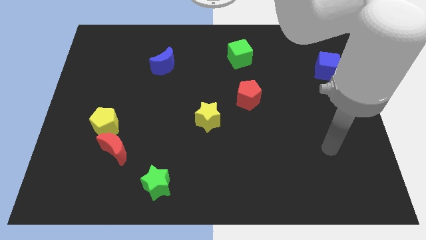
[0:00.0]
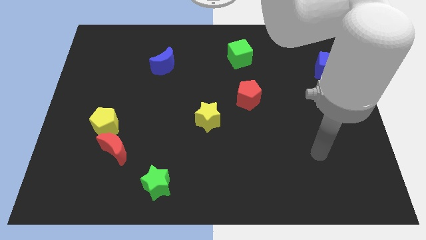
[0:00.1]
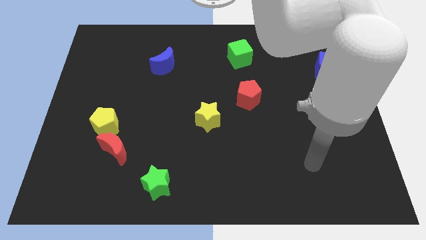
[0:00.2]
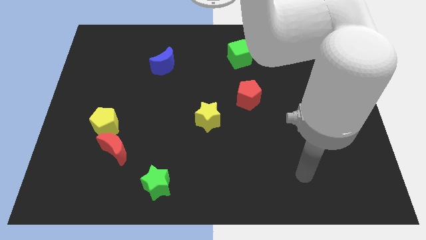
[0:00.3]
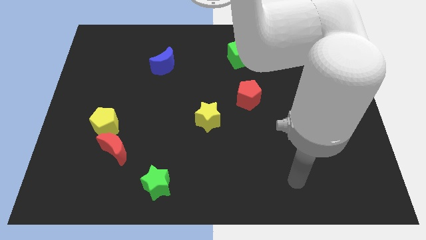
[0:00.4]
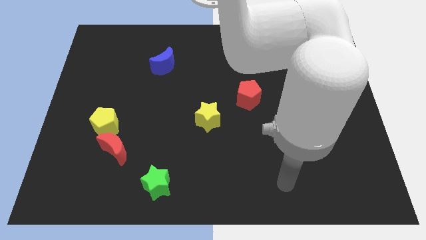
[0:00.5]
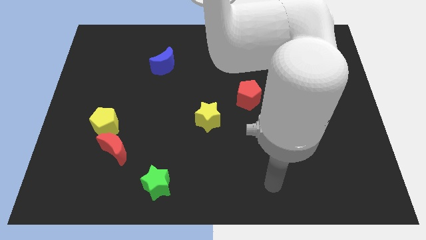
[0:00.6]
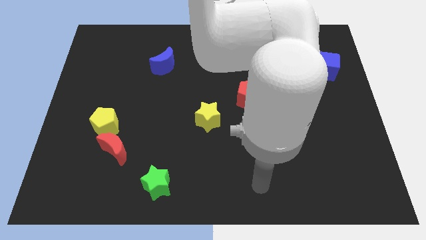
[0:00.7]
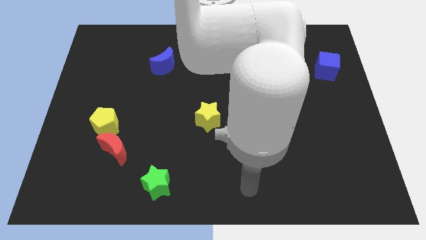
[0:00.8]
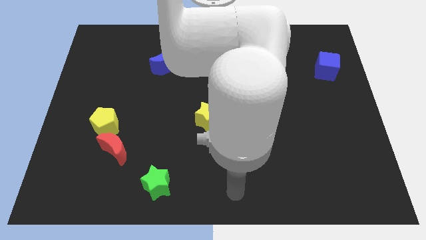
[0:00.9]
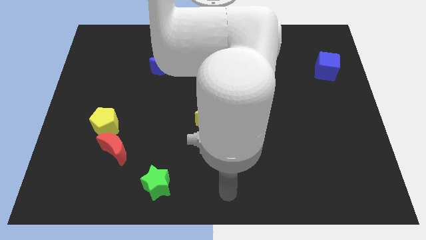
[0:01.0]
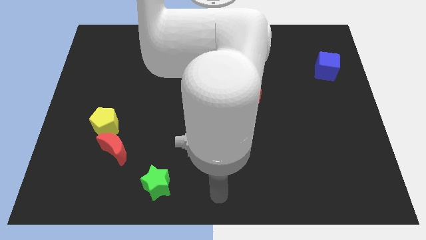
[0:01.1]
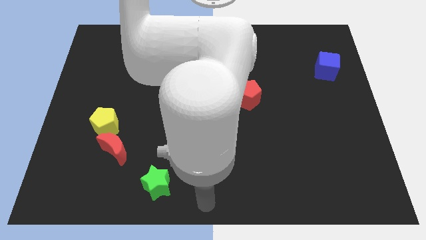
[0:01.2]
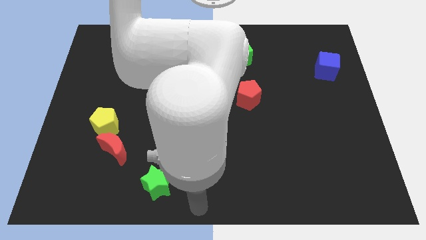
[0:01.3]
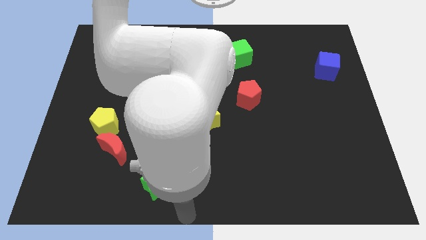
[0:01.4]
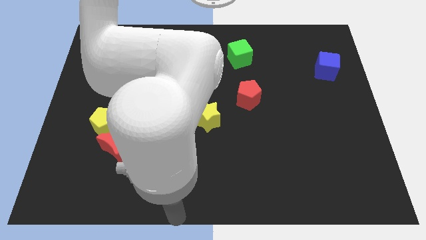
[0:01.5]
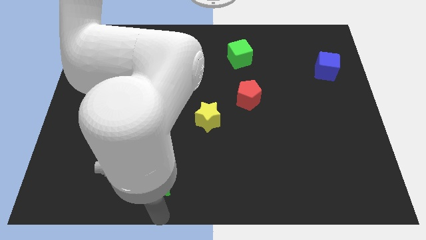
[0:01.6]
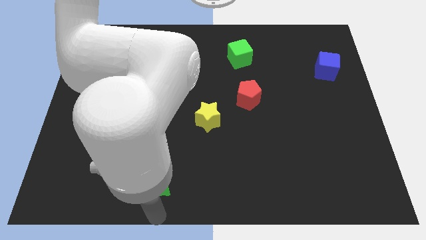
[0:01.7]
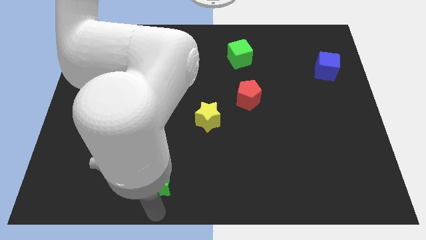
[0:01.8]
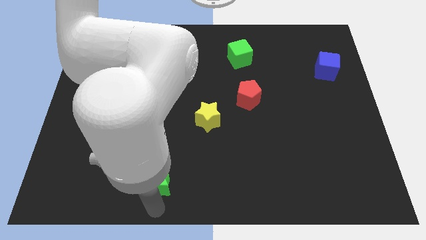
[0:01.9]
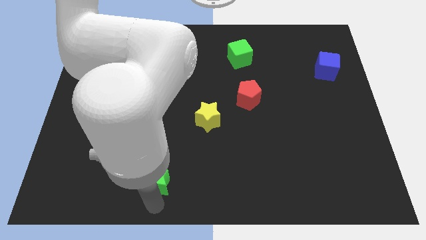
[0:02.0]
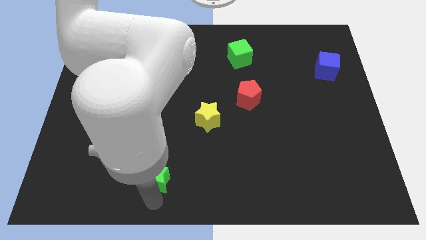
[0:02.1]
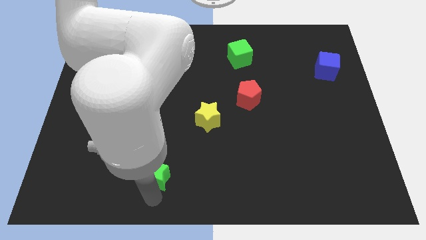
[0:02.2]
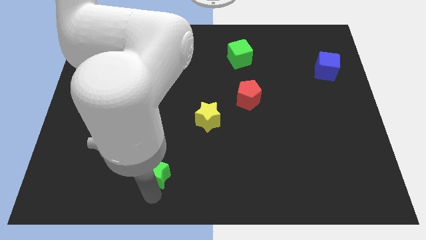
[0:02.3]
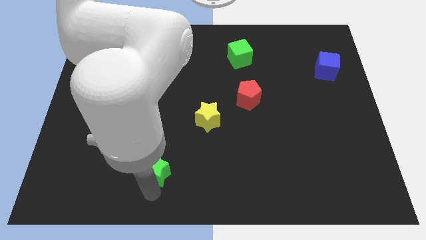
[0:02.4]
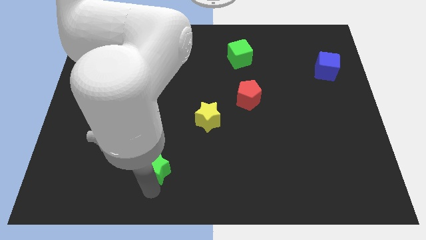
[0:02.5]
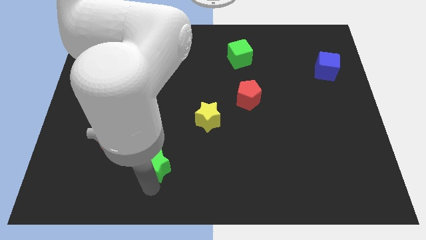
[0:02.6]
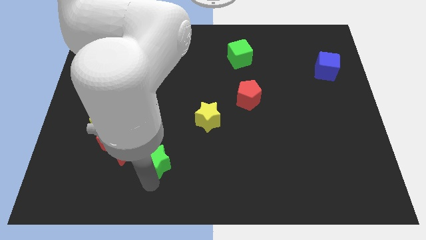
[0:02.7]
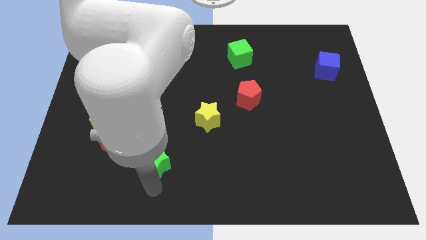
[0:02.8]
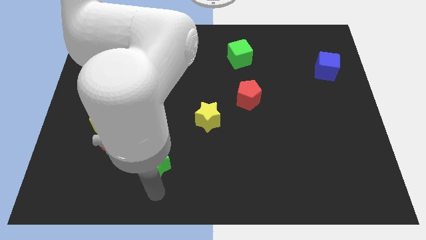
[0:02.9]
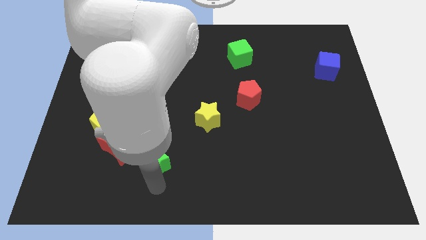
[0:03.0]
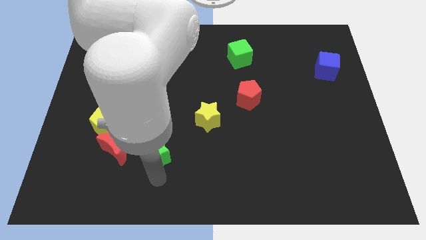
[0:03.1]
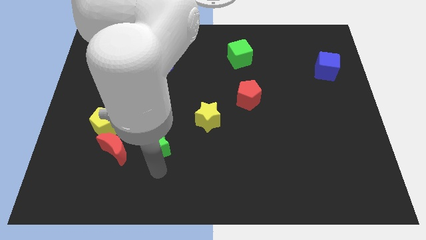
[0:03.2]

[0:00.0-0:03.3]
move the green star slightly up

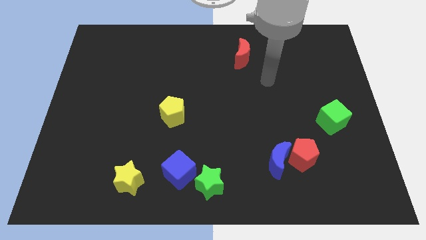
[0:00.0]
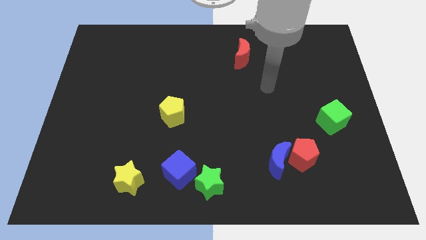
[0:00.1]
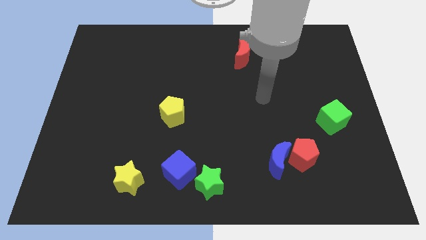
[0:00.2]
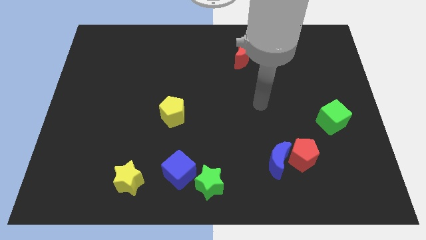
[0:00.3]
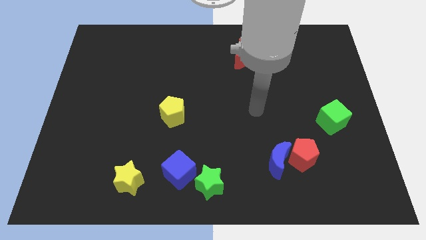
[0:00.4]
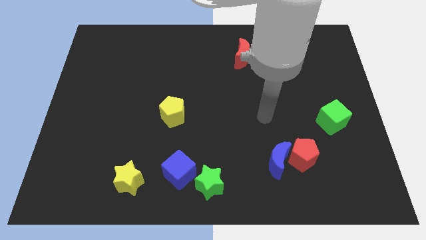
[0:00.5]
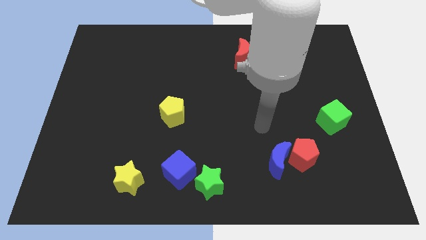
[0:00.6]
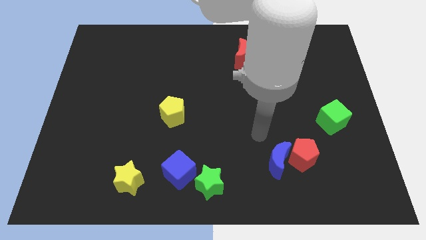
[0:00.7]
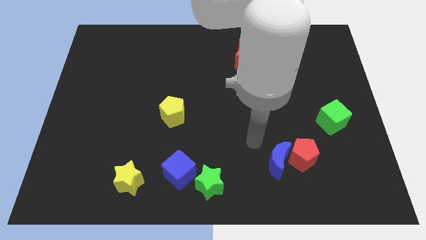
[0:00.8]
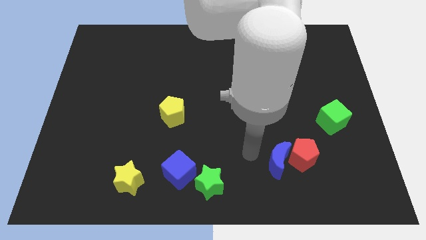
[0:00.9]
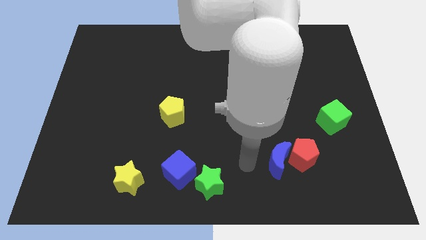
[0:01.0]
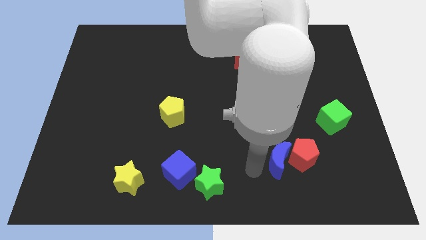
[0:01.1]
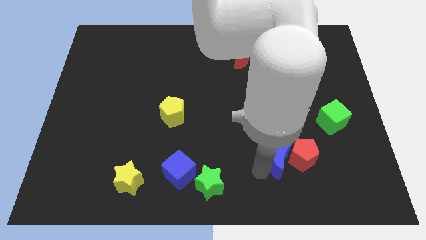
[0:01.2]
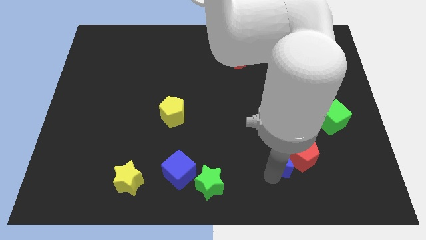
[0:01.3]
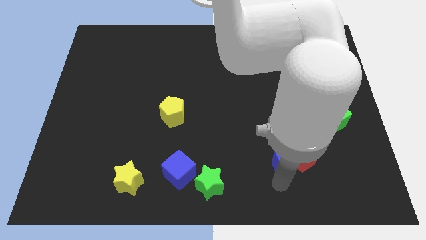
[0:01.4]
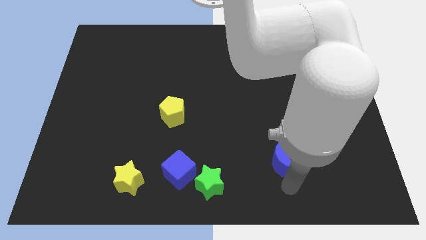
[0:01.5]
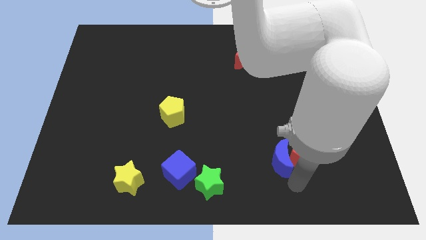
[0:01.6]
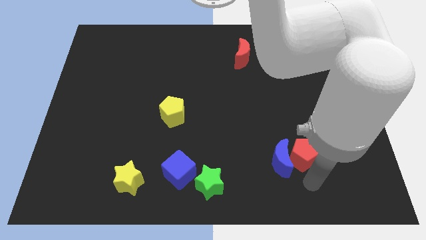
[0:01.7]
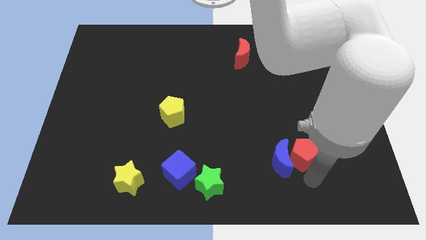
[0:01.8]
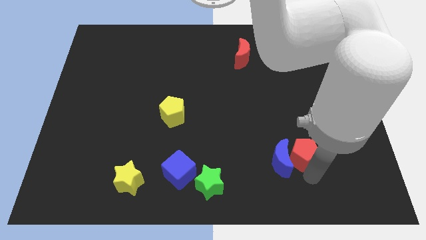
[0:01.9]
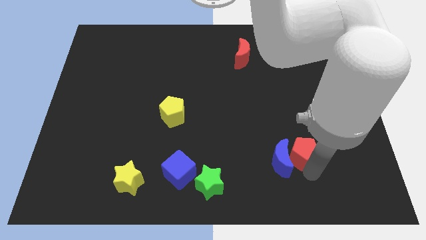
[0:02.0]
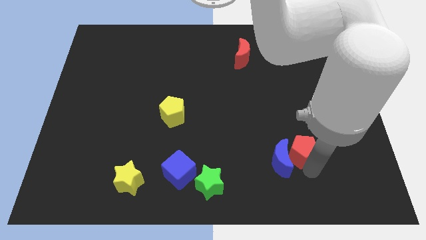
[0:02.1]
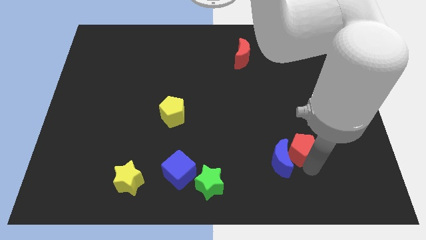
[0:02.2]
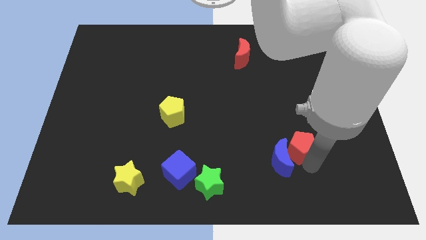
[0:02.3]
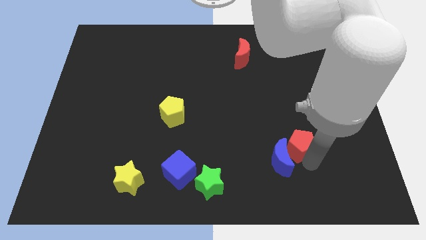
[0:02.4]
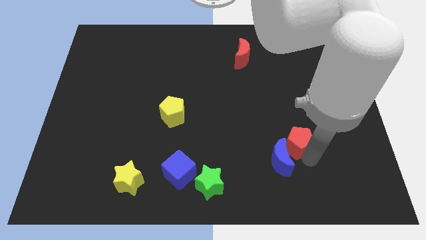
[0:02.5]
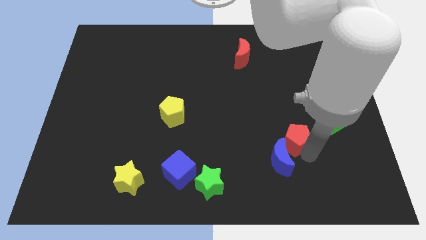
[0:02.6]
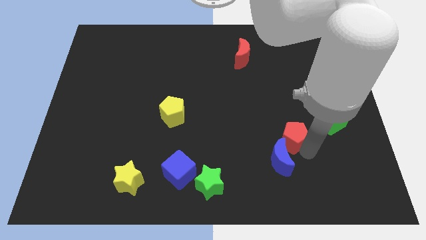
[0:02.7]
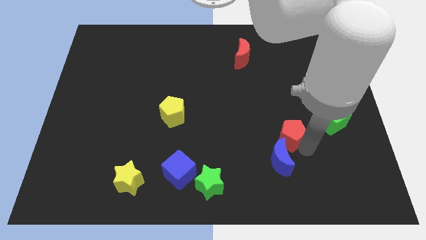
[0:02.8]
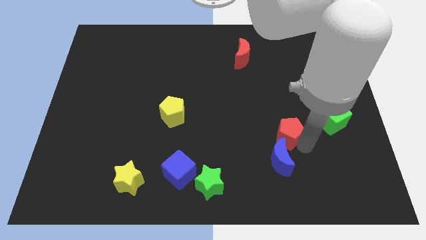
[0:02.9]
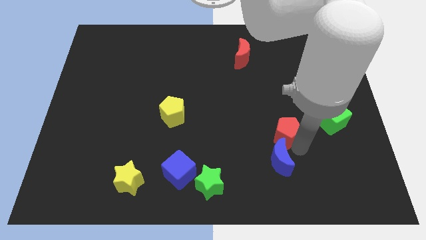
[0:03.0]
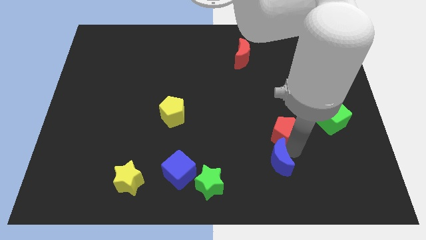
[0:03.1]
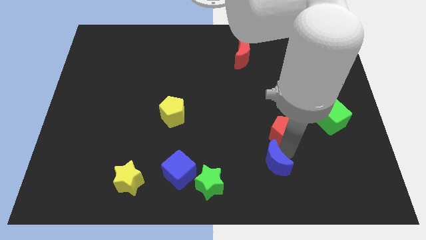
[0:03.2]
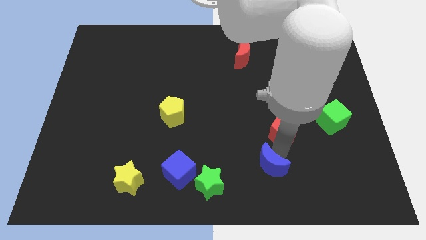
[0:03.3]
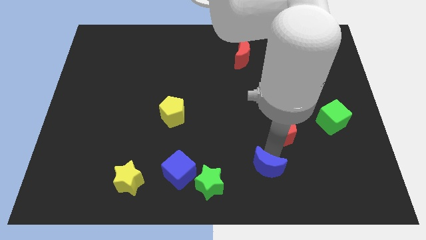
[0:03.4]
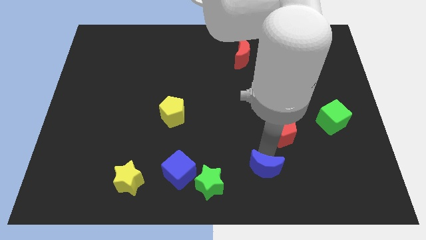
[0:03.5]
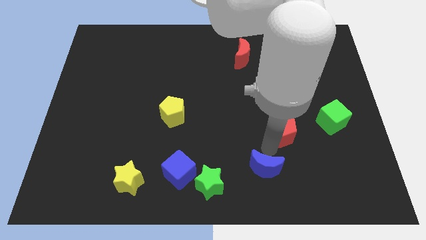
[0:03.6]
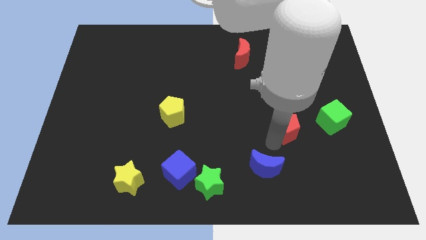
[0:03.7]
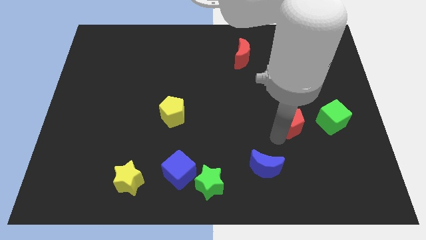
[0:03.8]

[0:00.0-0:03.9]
slightly move the red pentagon up

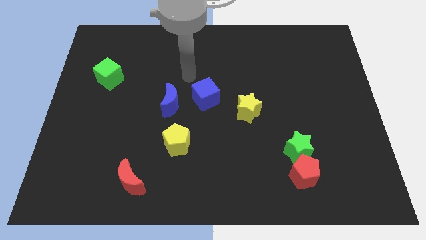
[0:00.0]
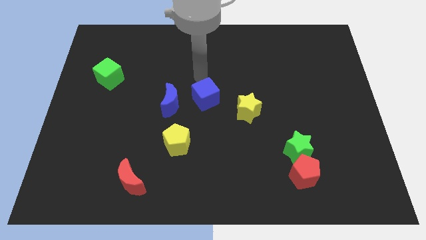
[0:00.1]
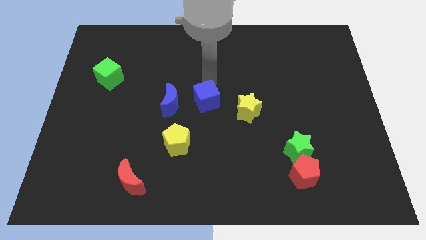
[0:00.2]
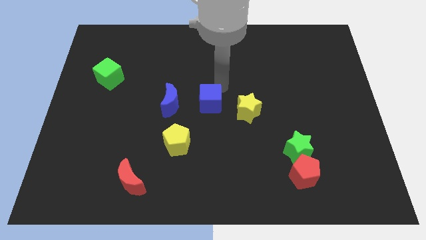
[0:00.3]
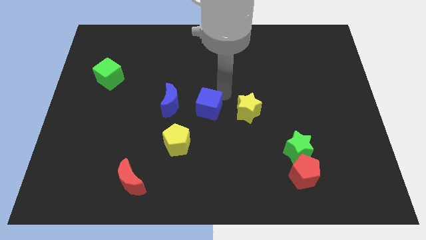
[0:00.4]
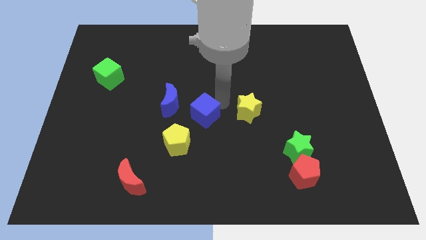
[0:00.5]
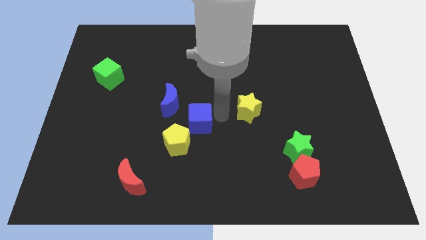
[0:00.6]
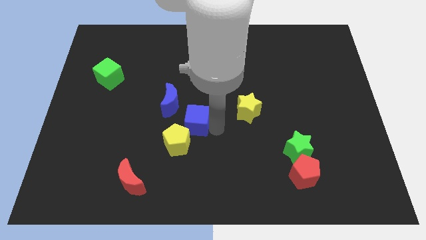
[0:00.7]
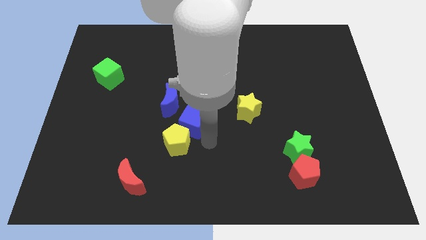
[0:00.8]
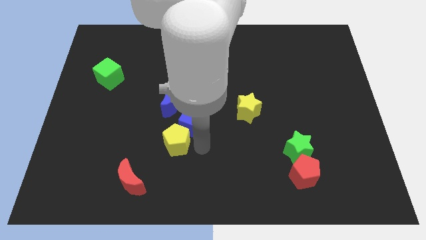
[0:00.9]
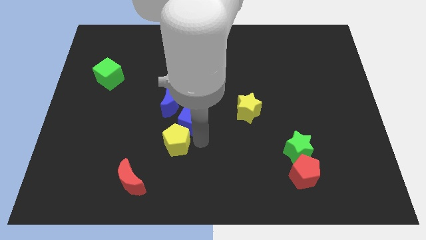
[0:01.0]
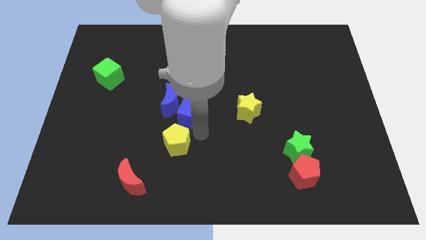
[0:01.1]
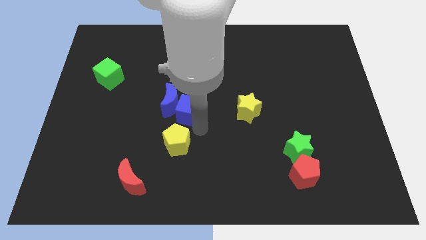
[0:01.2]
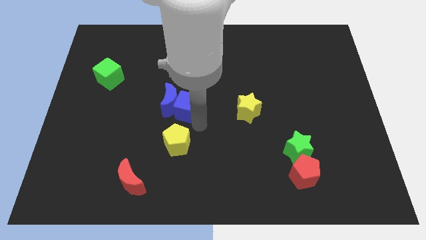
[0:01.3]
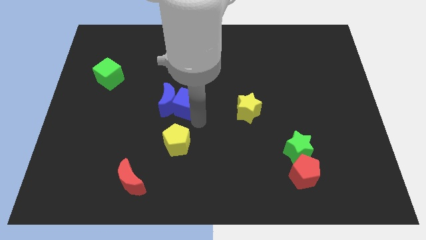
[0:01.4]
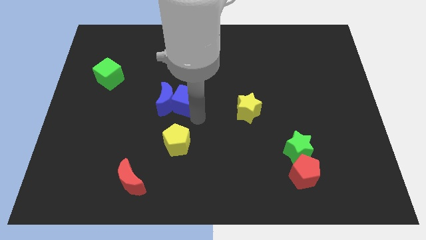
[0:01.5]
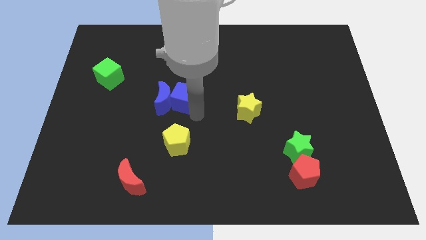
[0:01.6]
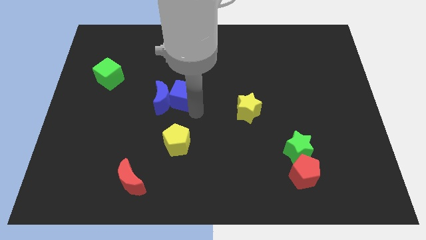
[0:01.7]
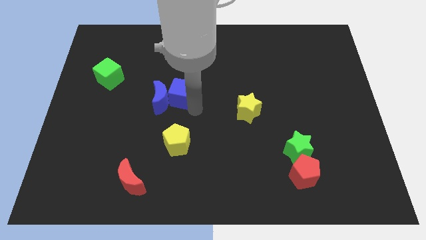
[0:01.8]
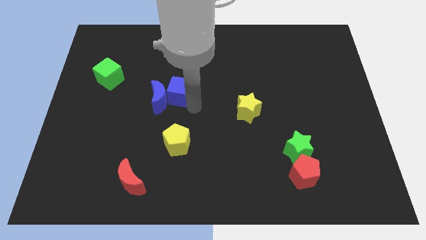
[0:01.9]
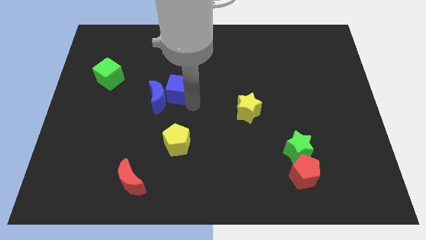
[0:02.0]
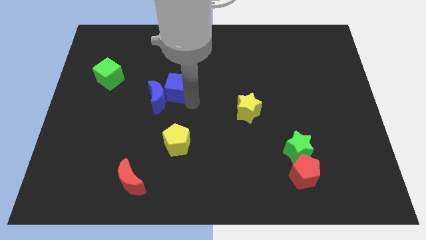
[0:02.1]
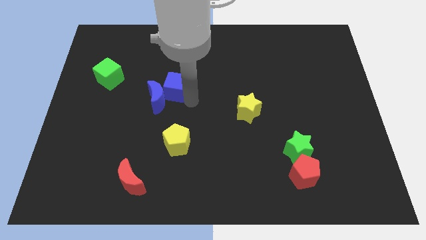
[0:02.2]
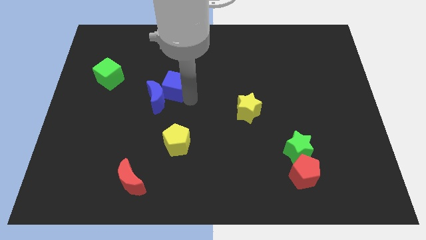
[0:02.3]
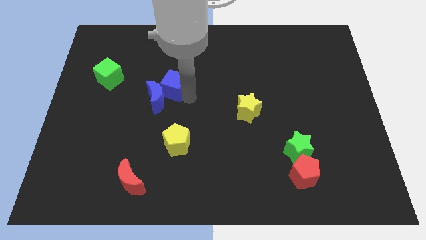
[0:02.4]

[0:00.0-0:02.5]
move the blue cube upwards and to the left diagonally a bit
